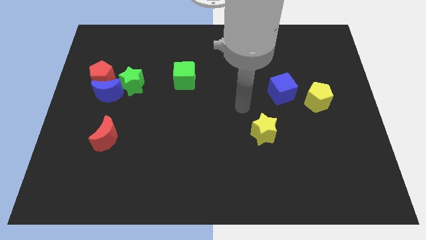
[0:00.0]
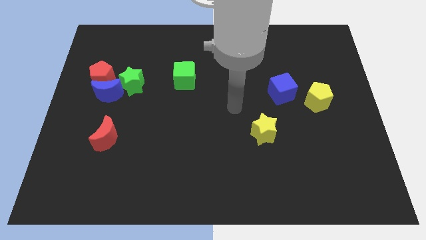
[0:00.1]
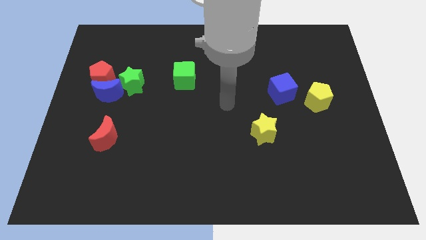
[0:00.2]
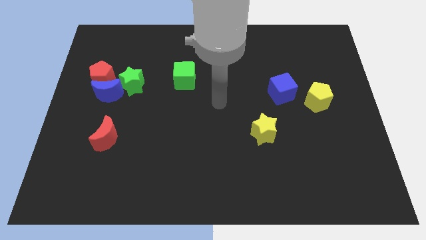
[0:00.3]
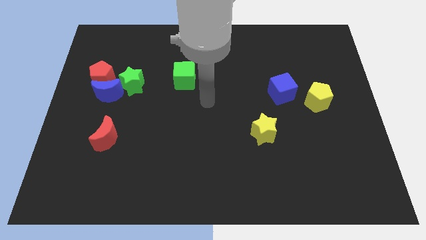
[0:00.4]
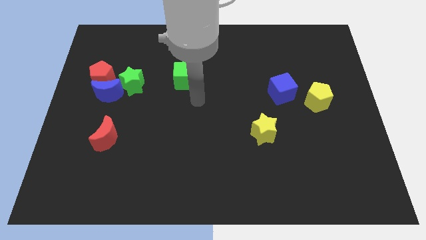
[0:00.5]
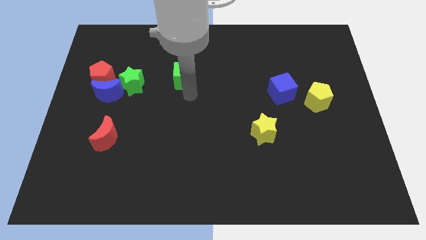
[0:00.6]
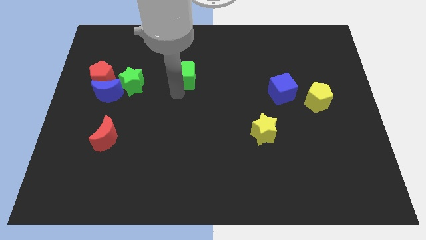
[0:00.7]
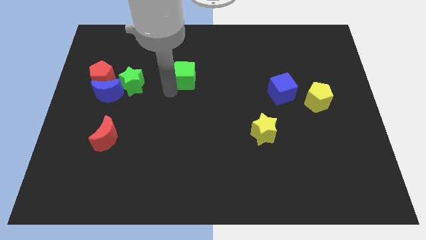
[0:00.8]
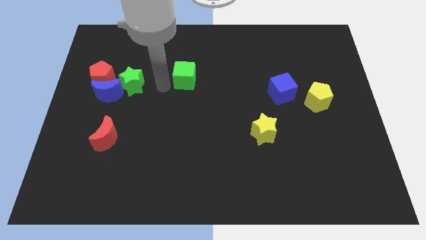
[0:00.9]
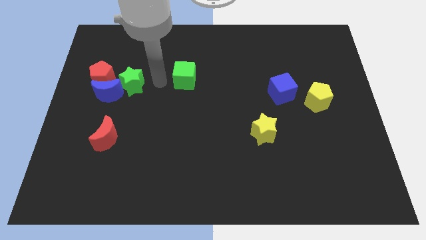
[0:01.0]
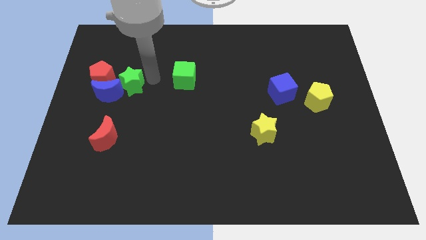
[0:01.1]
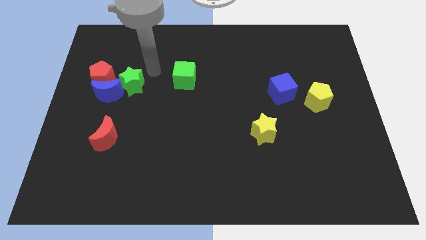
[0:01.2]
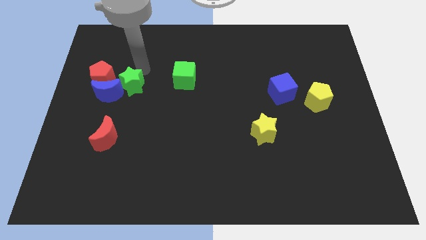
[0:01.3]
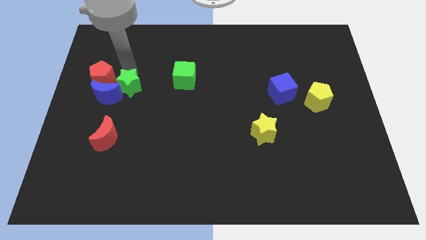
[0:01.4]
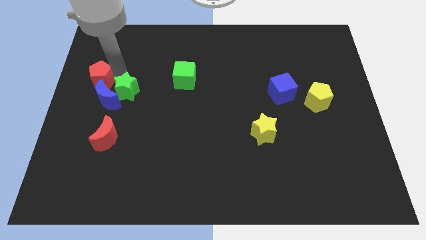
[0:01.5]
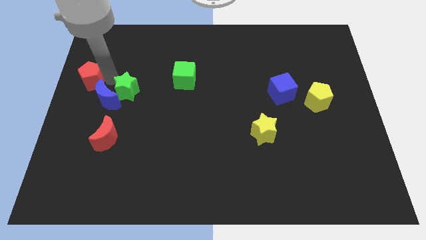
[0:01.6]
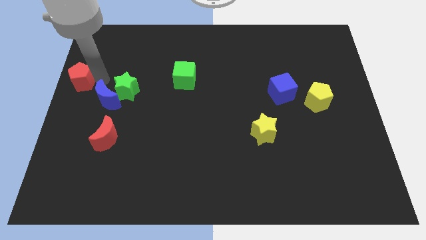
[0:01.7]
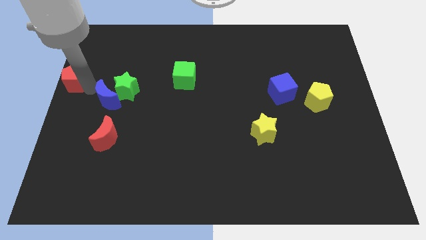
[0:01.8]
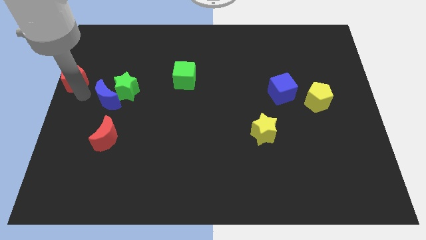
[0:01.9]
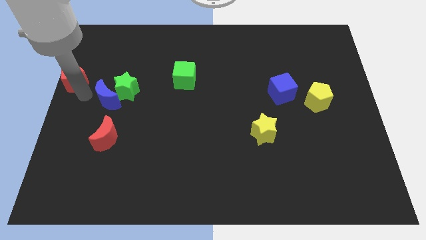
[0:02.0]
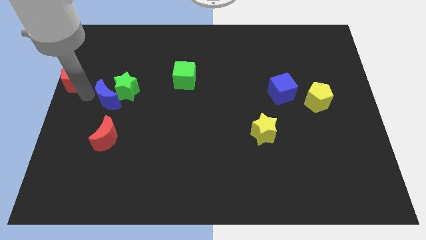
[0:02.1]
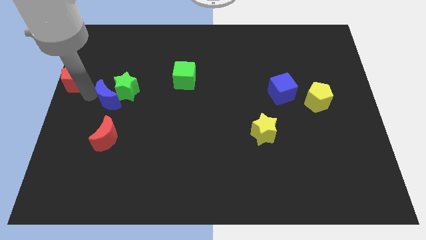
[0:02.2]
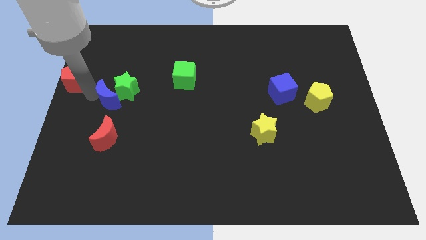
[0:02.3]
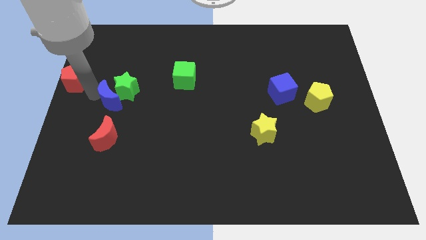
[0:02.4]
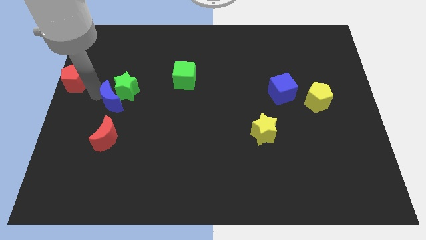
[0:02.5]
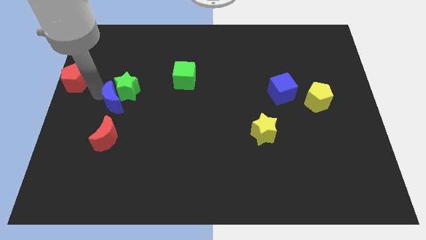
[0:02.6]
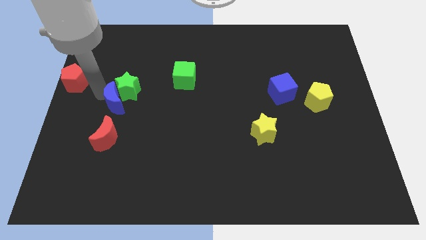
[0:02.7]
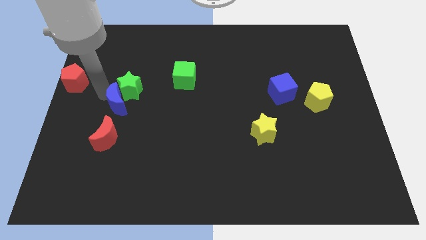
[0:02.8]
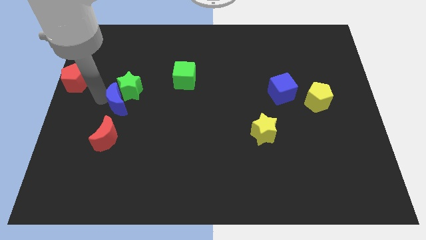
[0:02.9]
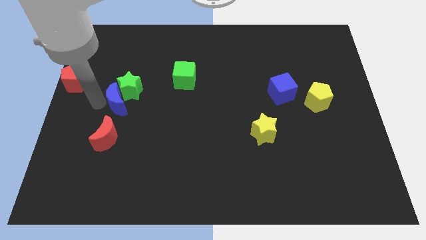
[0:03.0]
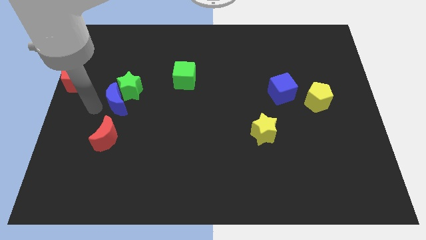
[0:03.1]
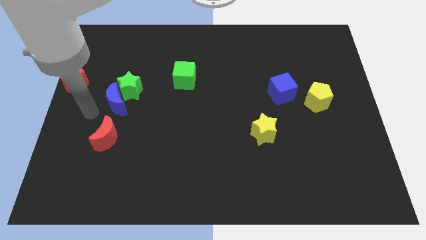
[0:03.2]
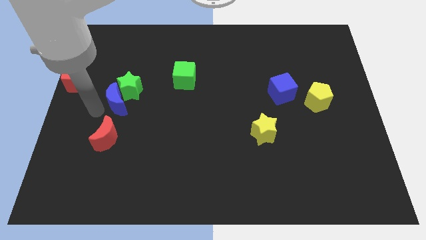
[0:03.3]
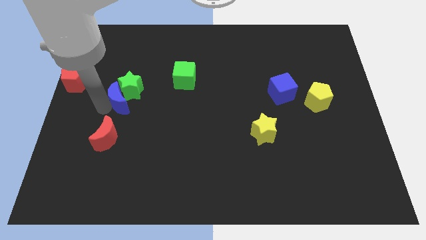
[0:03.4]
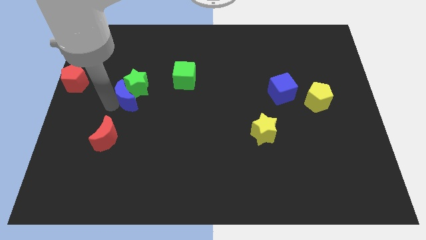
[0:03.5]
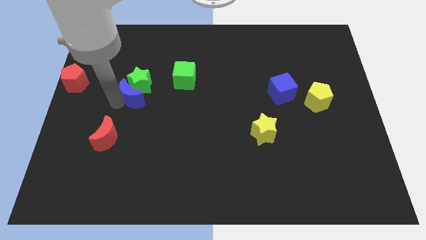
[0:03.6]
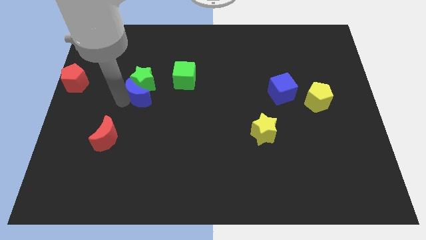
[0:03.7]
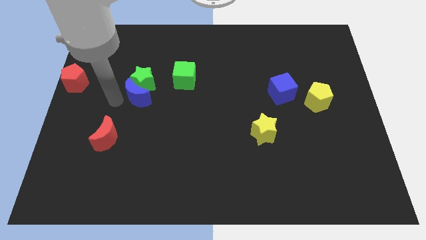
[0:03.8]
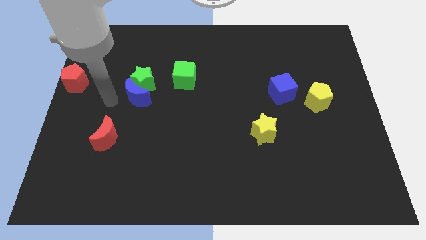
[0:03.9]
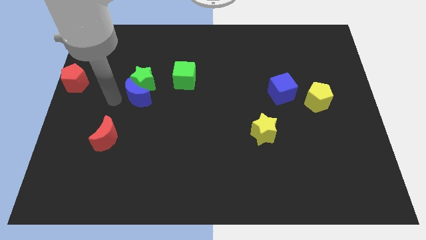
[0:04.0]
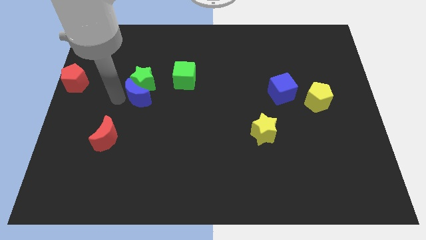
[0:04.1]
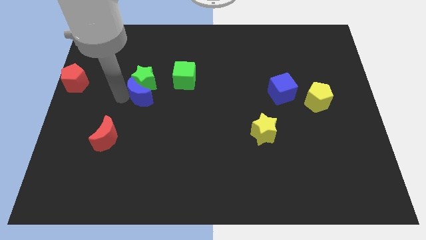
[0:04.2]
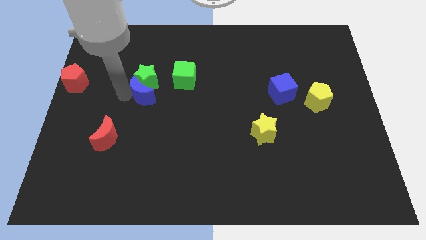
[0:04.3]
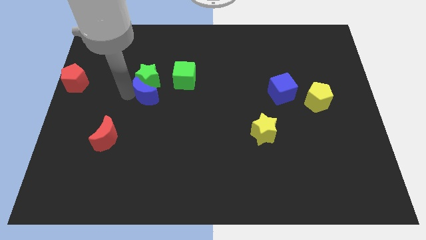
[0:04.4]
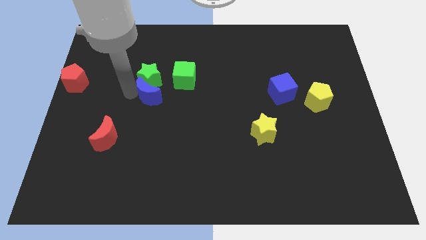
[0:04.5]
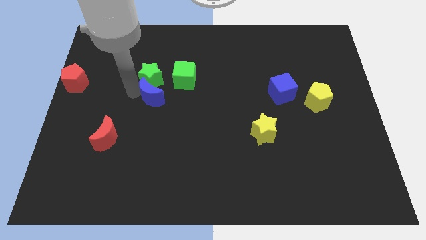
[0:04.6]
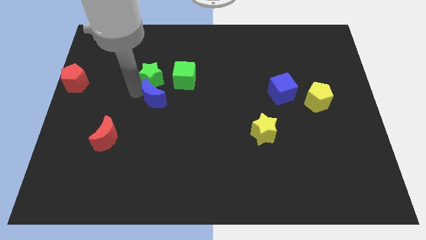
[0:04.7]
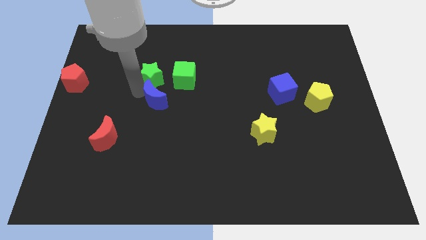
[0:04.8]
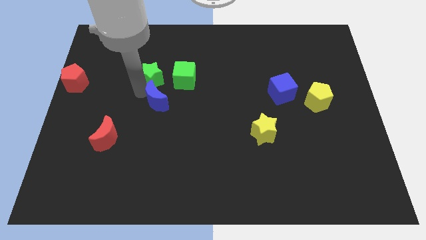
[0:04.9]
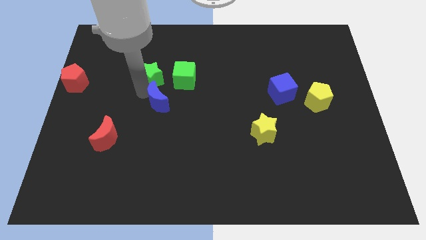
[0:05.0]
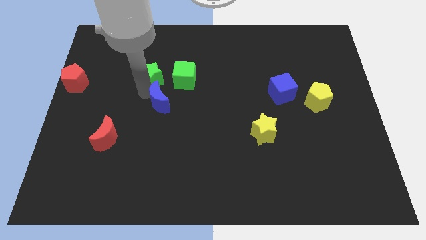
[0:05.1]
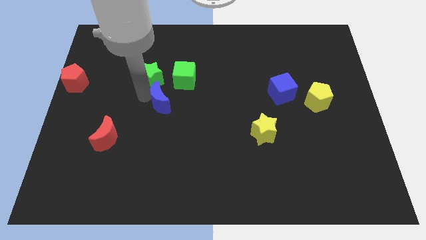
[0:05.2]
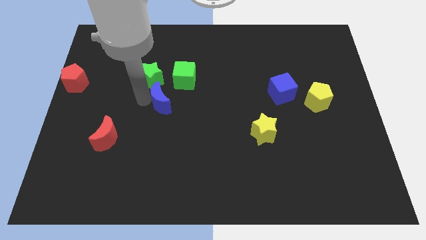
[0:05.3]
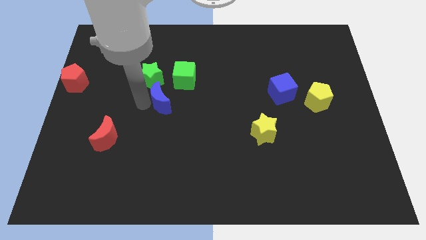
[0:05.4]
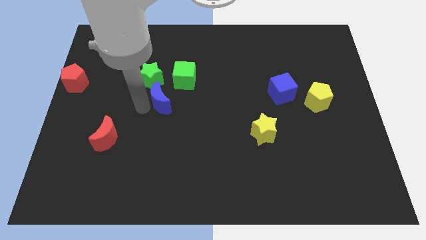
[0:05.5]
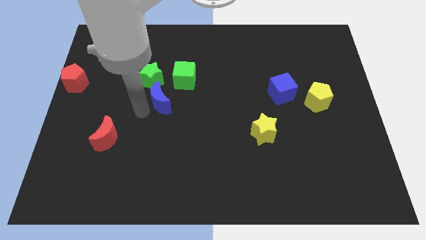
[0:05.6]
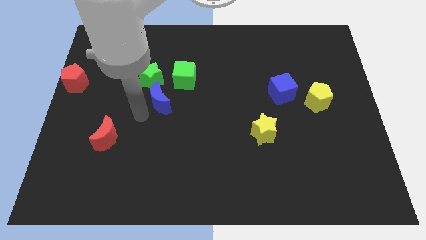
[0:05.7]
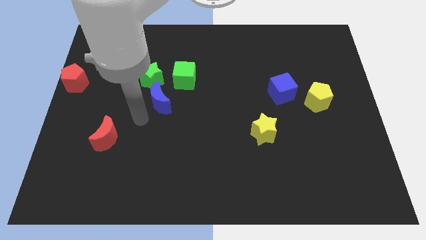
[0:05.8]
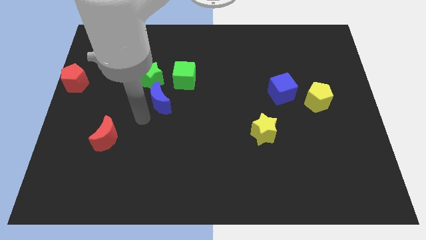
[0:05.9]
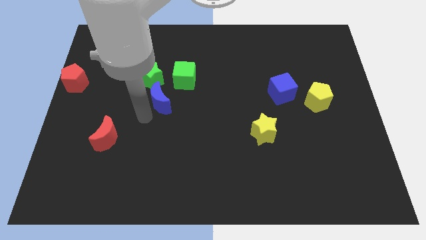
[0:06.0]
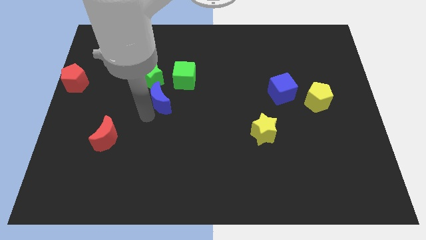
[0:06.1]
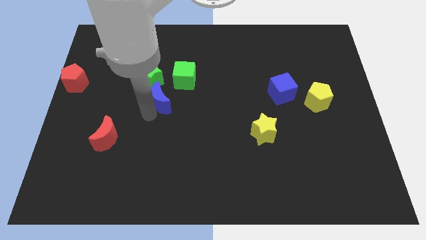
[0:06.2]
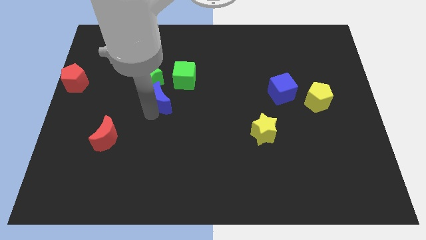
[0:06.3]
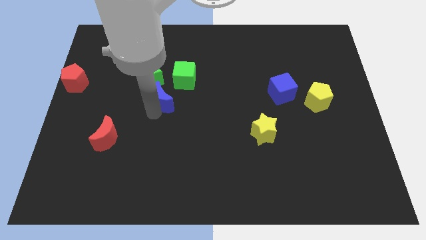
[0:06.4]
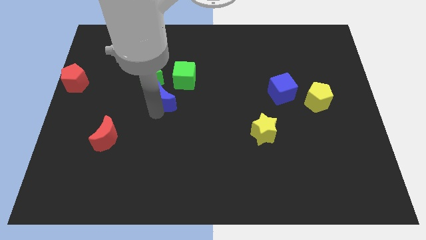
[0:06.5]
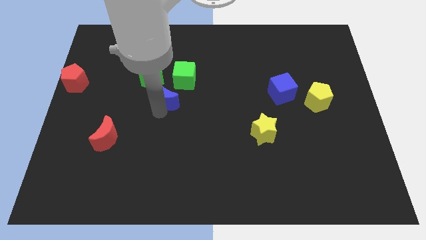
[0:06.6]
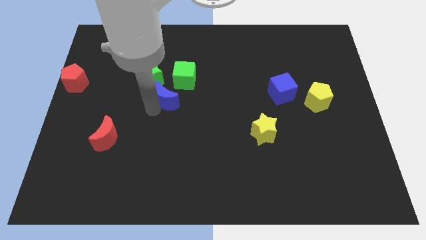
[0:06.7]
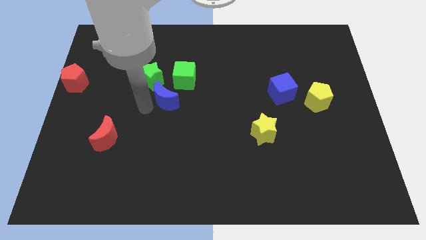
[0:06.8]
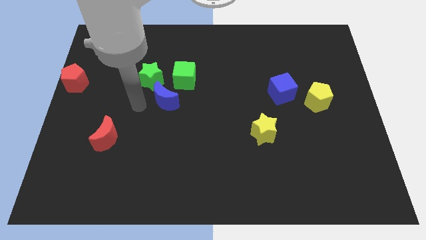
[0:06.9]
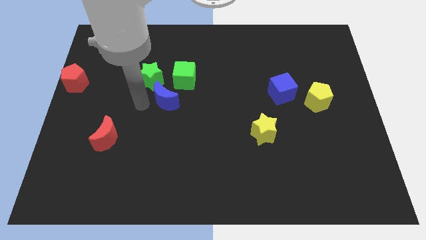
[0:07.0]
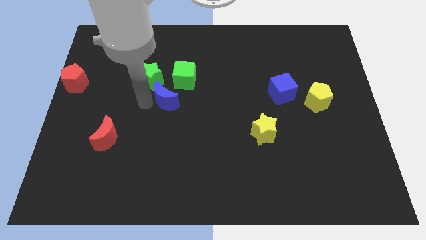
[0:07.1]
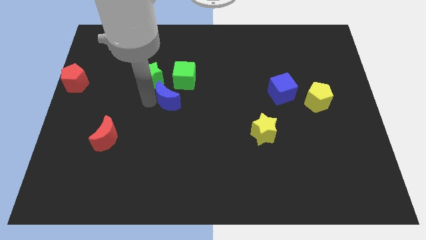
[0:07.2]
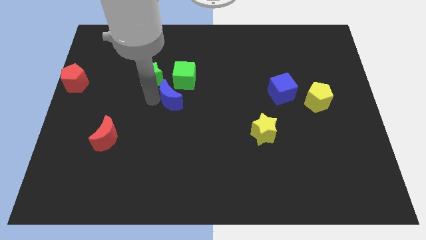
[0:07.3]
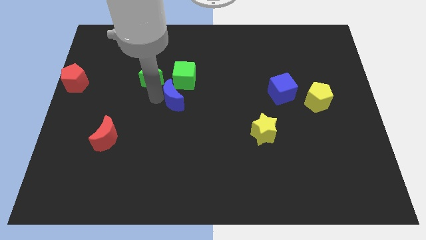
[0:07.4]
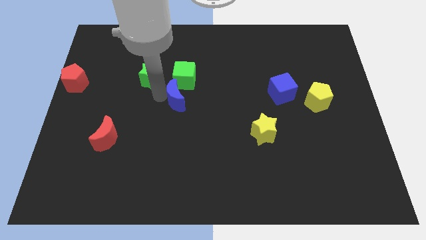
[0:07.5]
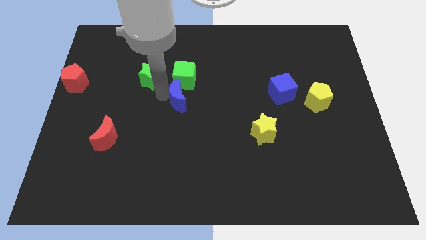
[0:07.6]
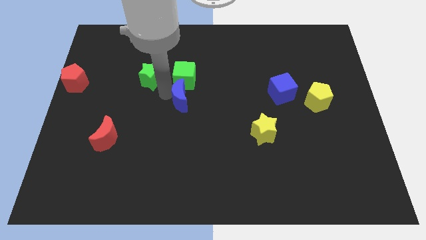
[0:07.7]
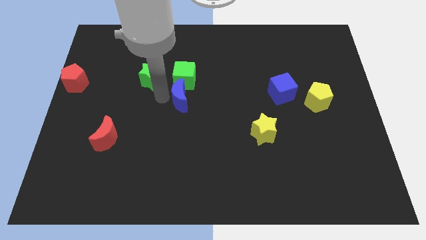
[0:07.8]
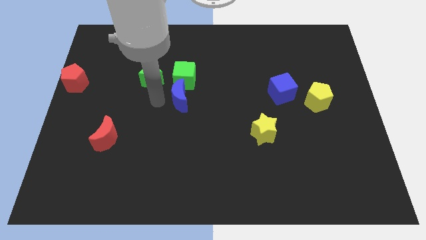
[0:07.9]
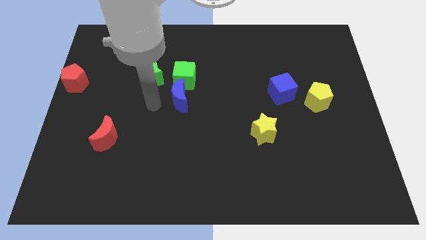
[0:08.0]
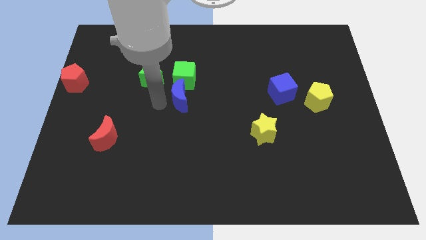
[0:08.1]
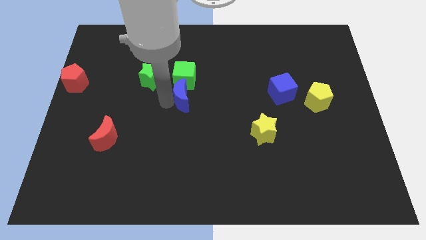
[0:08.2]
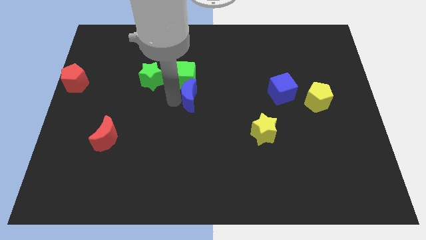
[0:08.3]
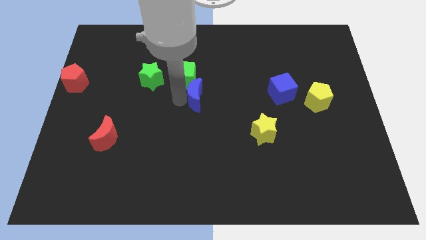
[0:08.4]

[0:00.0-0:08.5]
slide the blue moon right
